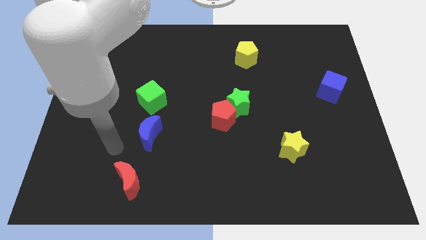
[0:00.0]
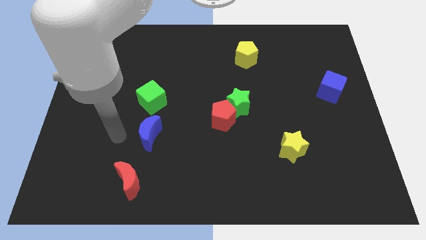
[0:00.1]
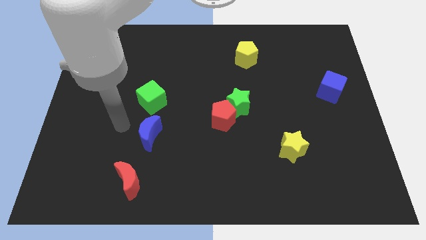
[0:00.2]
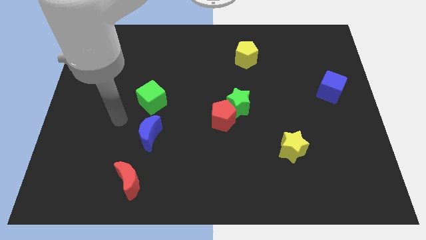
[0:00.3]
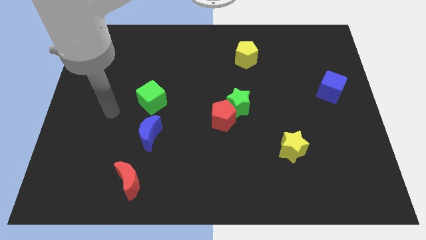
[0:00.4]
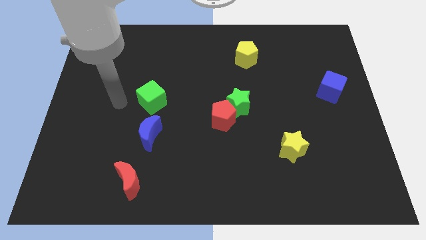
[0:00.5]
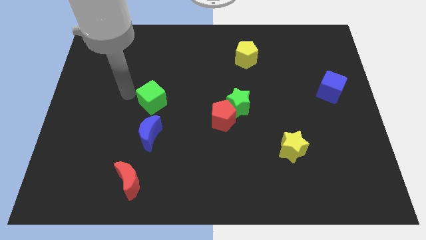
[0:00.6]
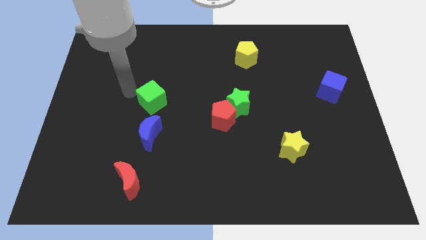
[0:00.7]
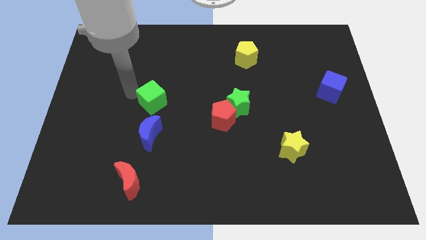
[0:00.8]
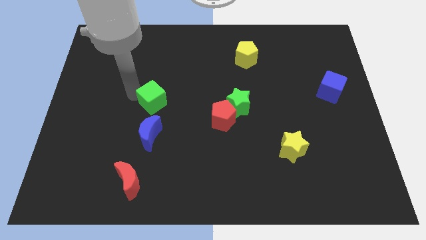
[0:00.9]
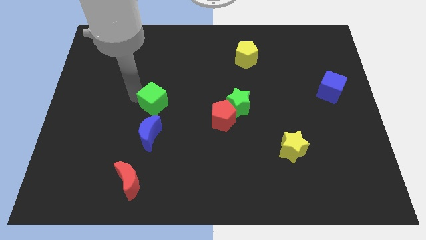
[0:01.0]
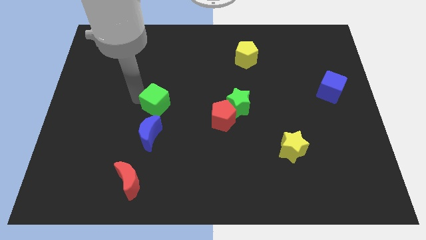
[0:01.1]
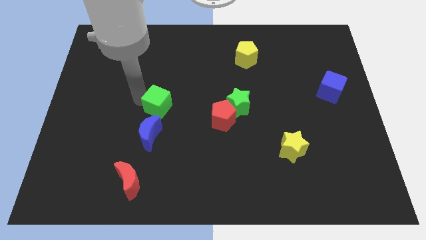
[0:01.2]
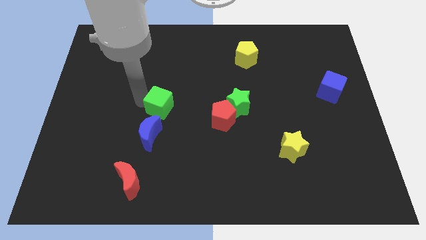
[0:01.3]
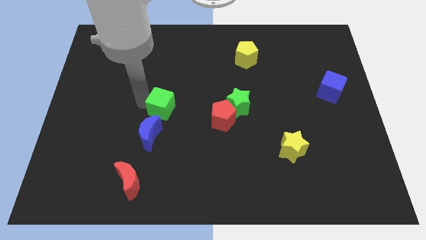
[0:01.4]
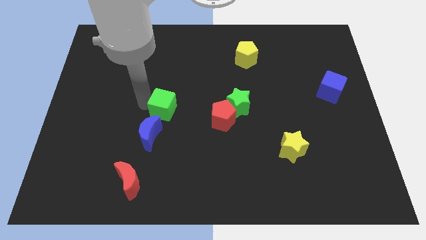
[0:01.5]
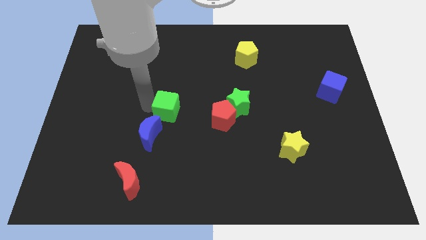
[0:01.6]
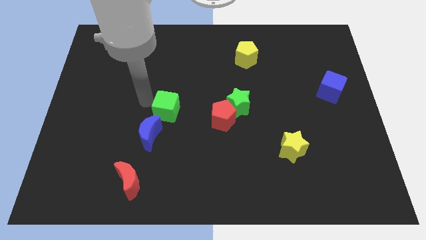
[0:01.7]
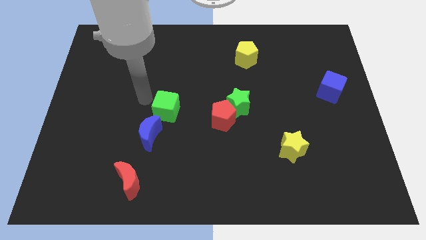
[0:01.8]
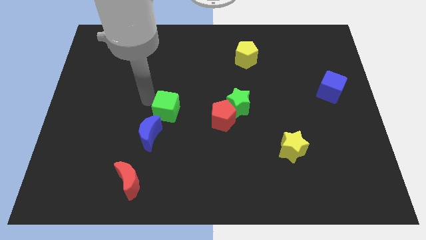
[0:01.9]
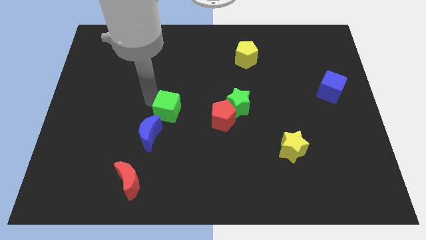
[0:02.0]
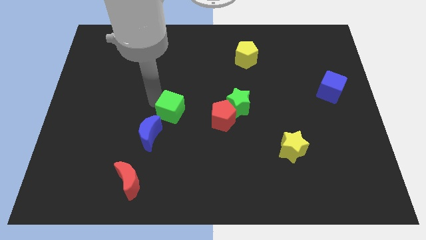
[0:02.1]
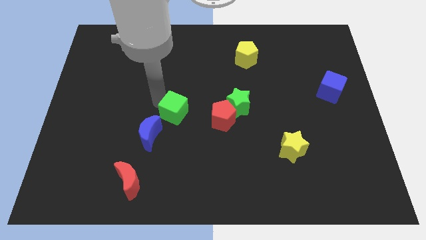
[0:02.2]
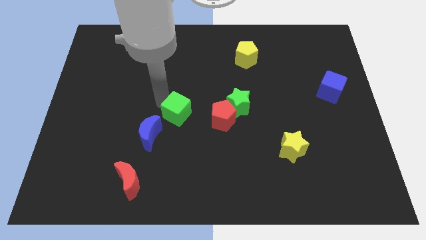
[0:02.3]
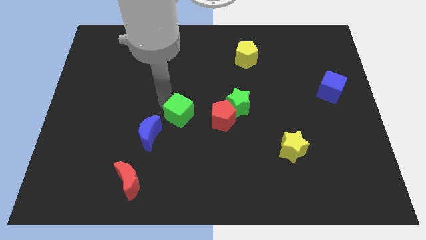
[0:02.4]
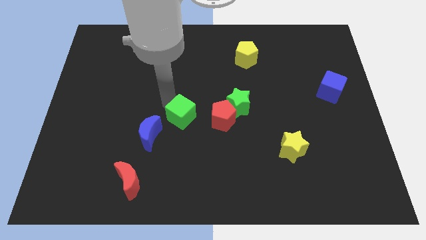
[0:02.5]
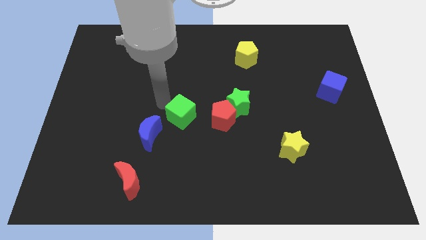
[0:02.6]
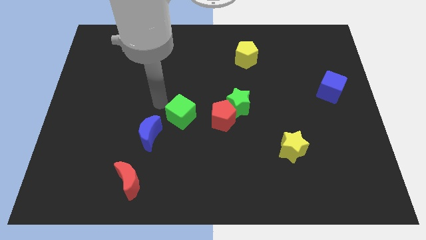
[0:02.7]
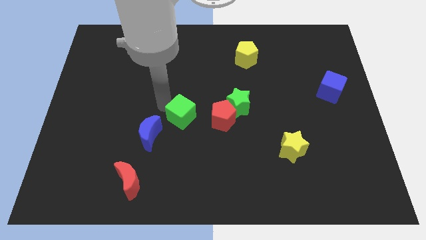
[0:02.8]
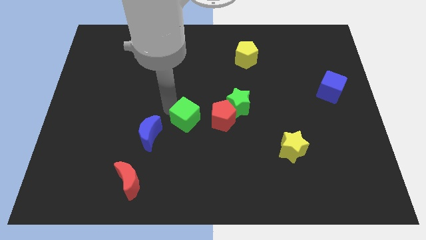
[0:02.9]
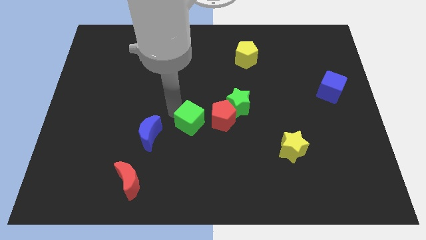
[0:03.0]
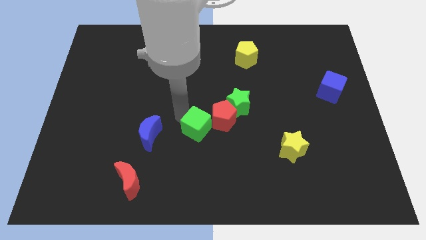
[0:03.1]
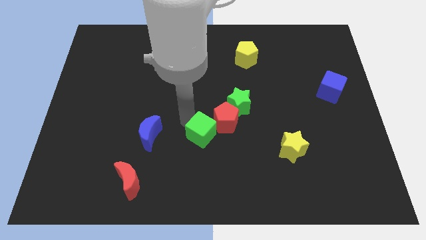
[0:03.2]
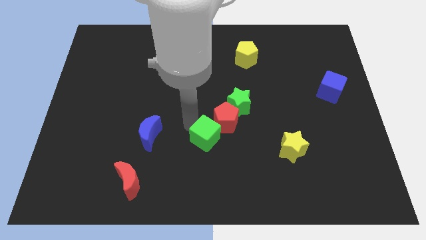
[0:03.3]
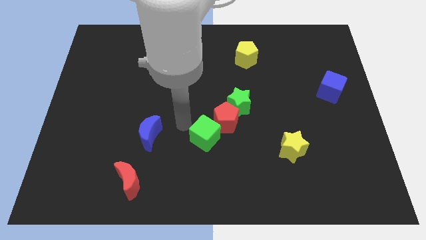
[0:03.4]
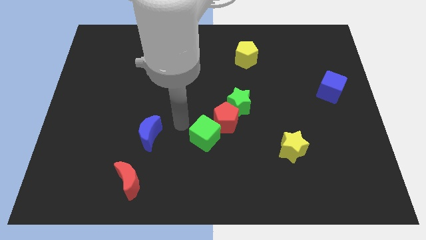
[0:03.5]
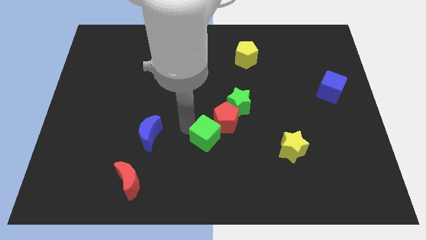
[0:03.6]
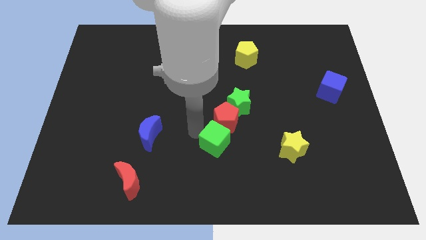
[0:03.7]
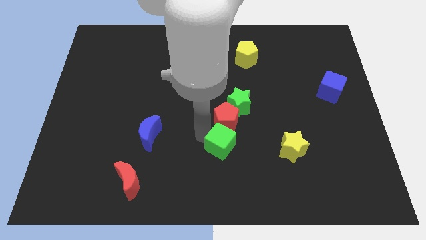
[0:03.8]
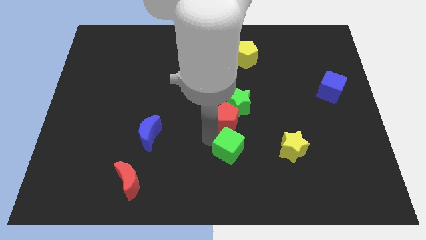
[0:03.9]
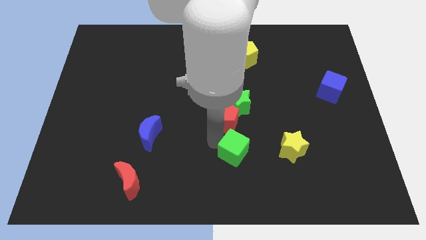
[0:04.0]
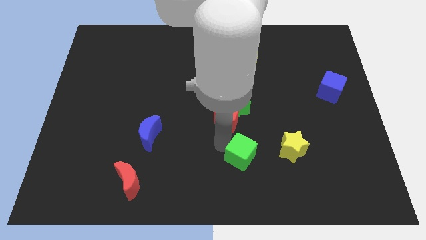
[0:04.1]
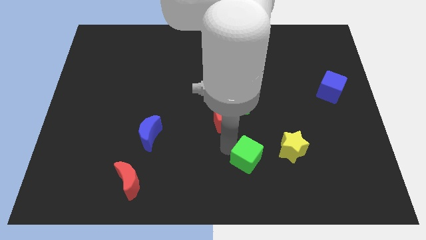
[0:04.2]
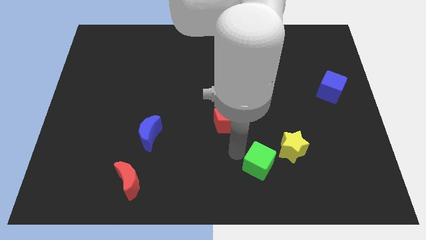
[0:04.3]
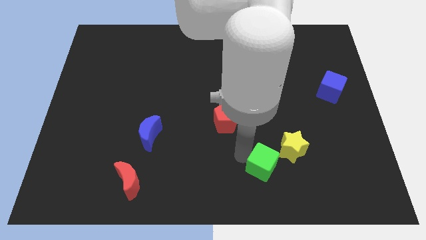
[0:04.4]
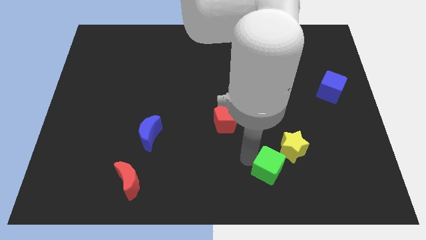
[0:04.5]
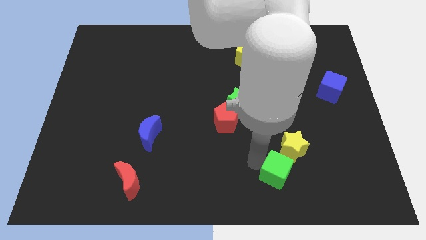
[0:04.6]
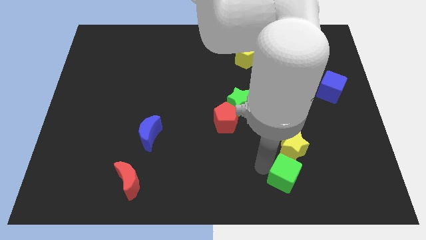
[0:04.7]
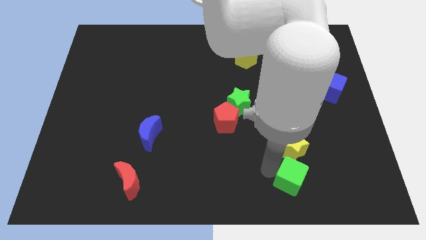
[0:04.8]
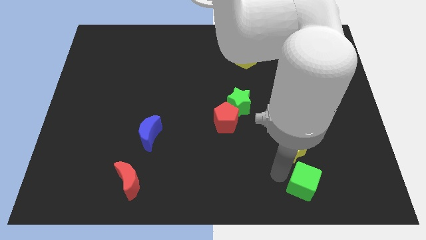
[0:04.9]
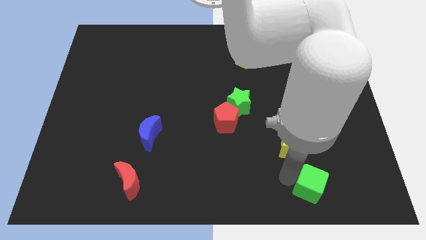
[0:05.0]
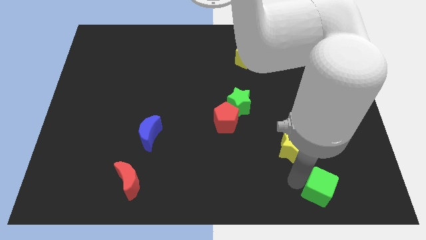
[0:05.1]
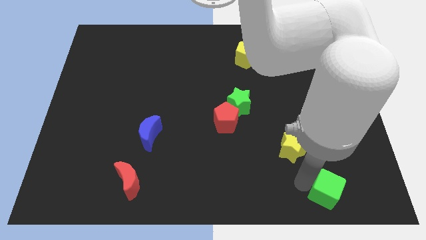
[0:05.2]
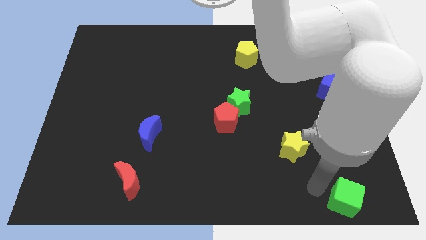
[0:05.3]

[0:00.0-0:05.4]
slide the green cube to the bottom right of the board

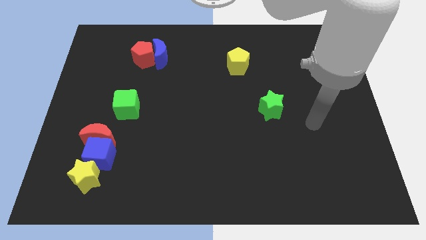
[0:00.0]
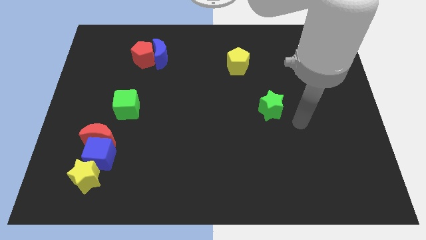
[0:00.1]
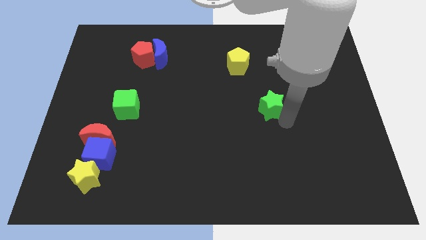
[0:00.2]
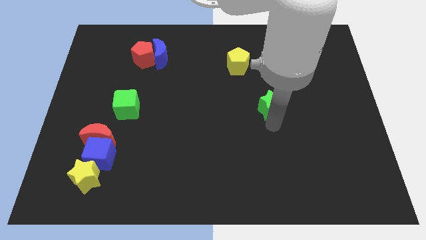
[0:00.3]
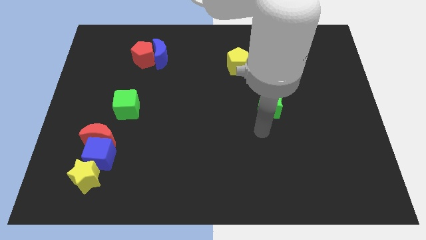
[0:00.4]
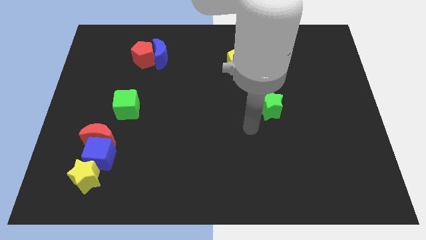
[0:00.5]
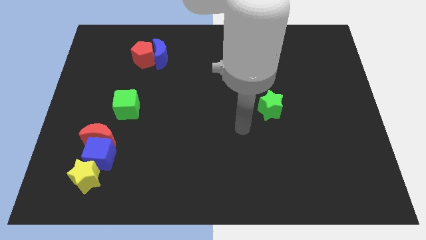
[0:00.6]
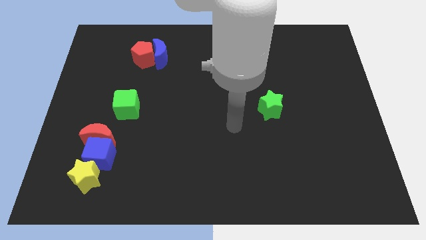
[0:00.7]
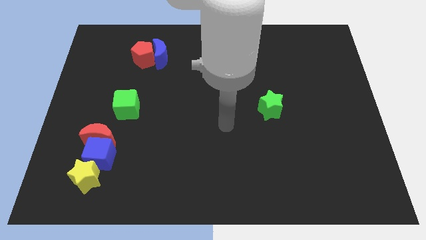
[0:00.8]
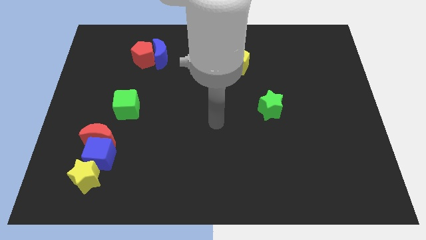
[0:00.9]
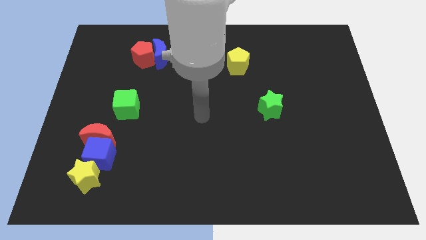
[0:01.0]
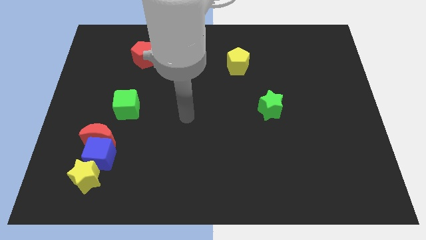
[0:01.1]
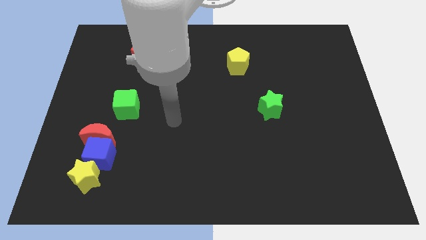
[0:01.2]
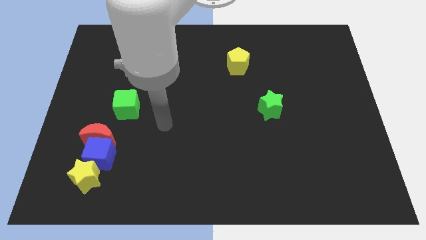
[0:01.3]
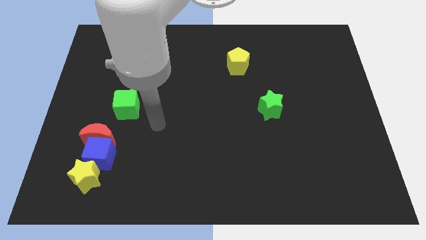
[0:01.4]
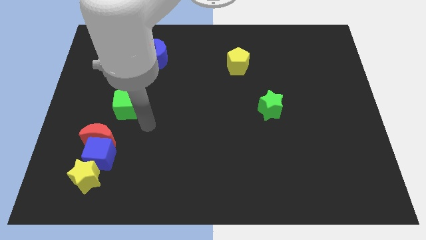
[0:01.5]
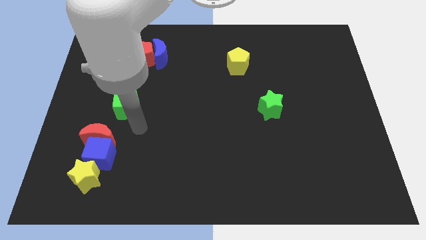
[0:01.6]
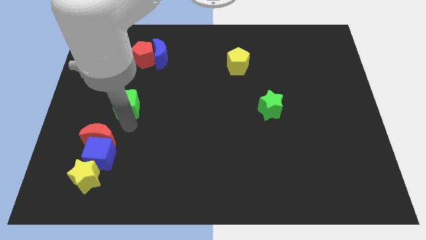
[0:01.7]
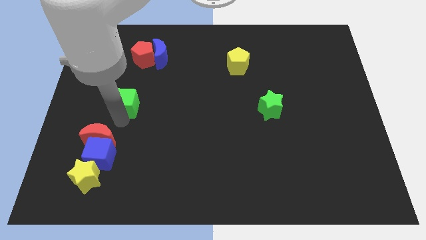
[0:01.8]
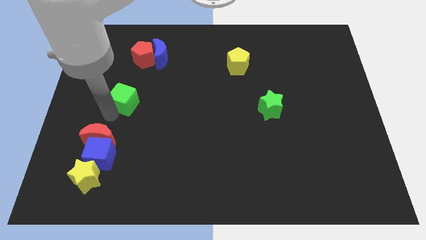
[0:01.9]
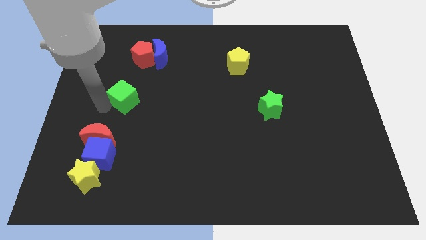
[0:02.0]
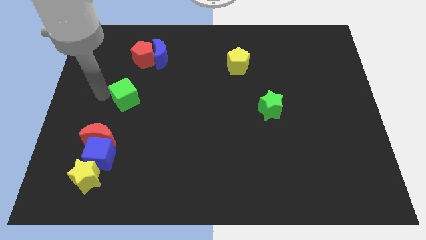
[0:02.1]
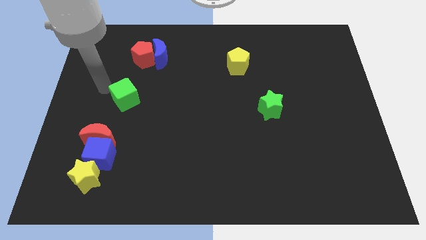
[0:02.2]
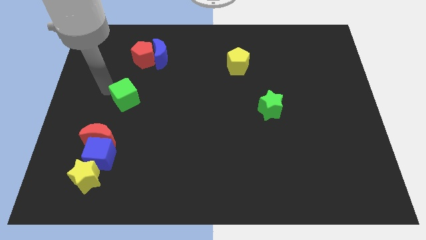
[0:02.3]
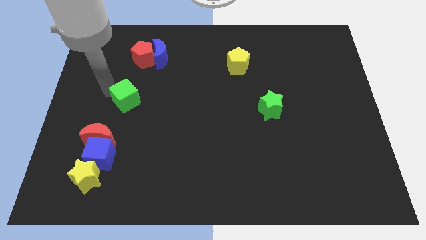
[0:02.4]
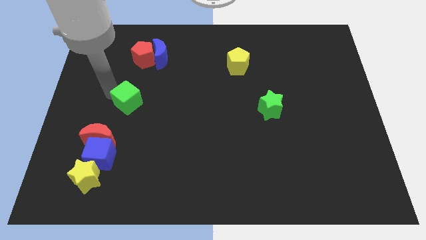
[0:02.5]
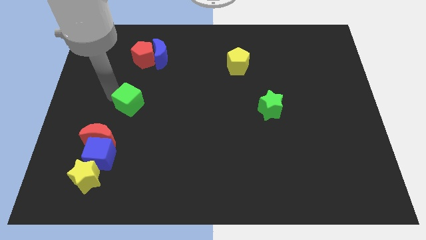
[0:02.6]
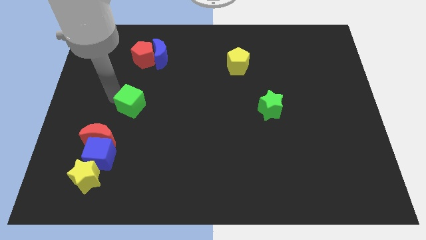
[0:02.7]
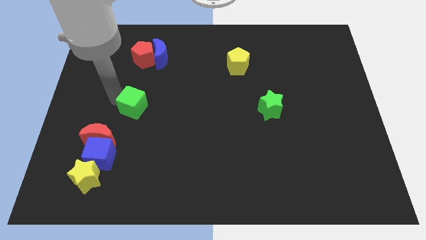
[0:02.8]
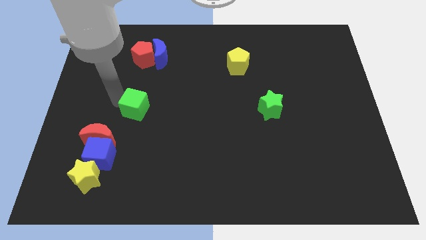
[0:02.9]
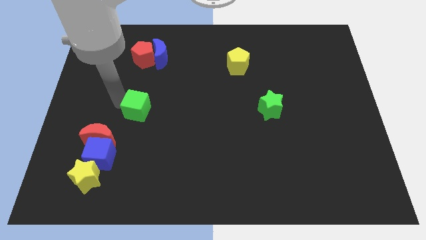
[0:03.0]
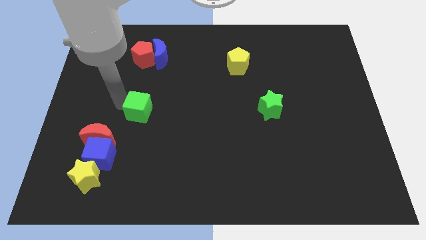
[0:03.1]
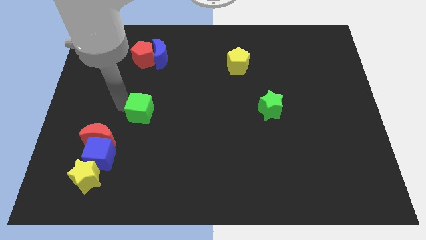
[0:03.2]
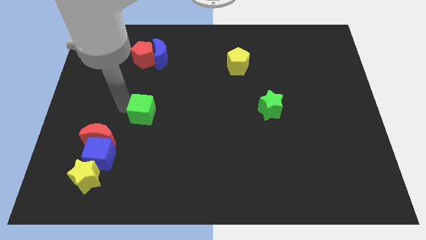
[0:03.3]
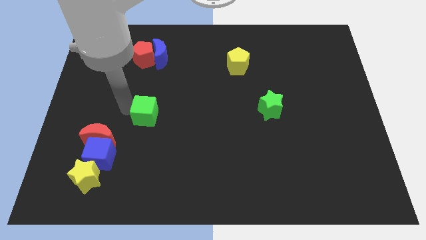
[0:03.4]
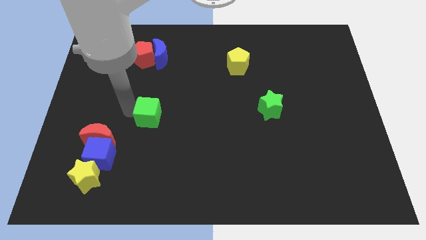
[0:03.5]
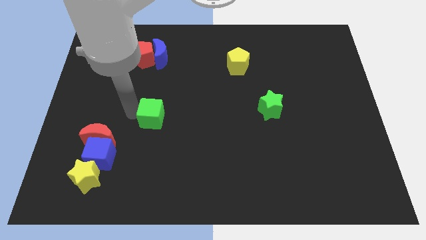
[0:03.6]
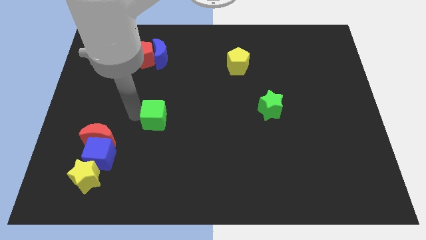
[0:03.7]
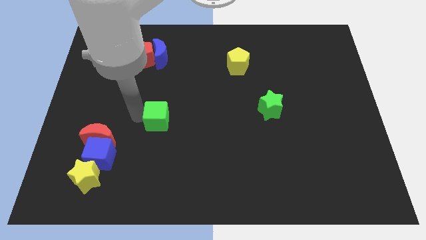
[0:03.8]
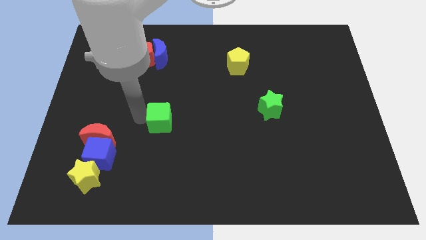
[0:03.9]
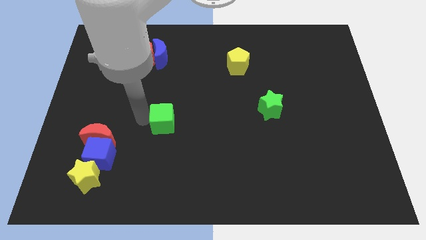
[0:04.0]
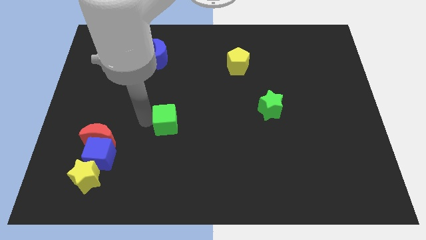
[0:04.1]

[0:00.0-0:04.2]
push the green cube to the center
